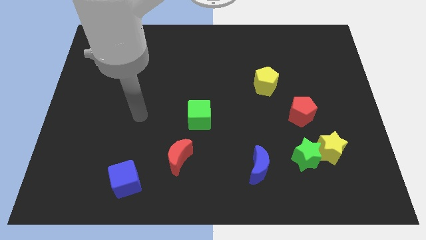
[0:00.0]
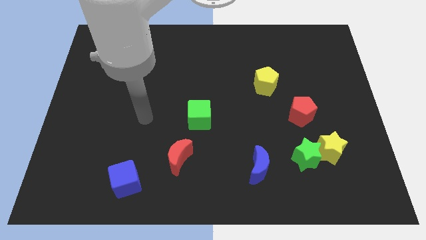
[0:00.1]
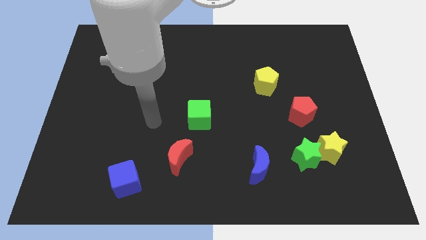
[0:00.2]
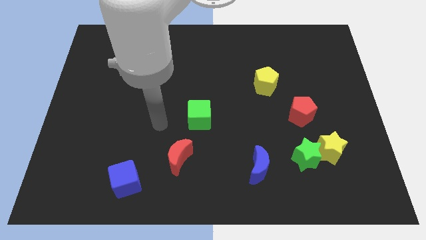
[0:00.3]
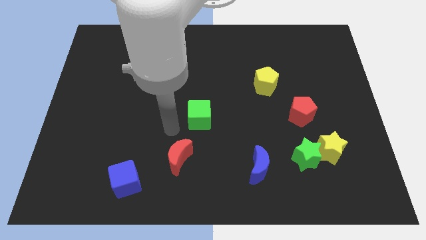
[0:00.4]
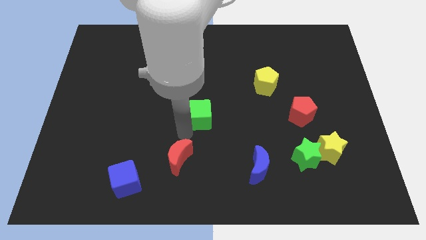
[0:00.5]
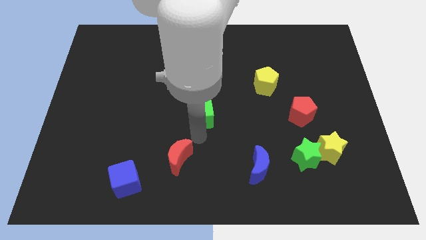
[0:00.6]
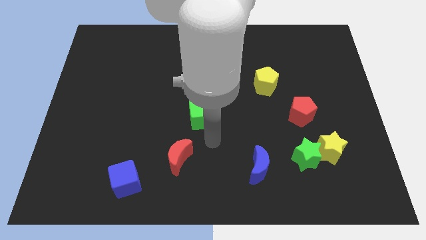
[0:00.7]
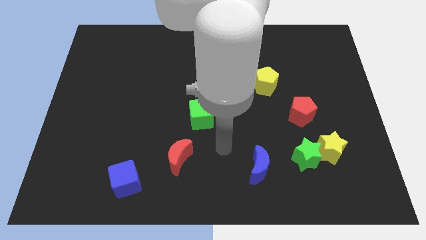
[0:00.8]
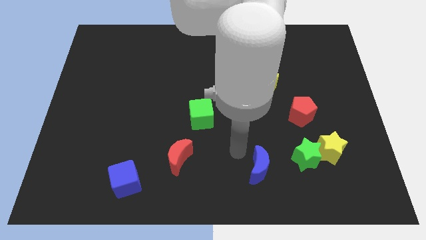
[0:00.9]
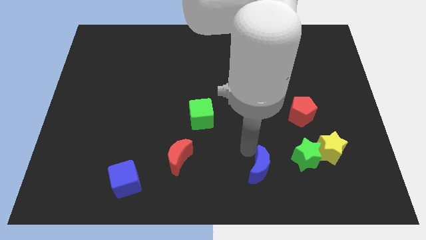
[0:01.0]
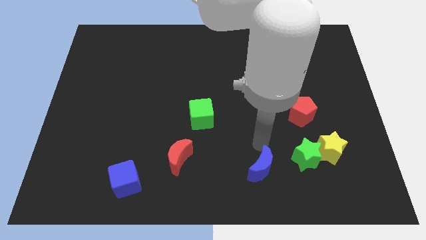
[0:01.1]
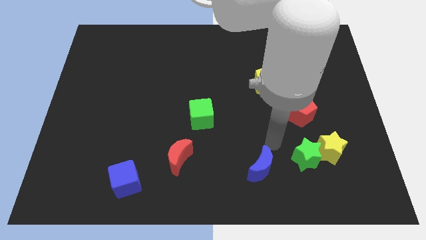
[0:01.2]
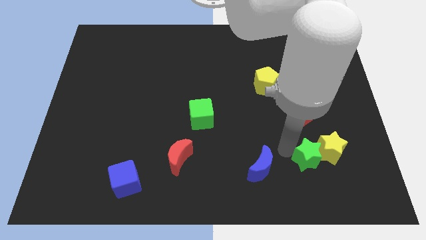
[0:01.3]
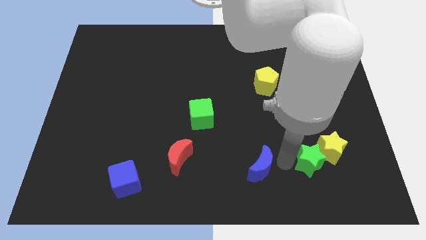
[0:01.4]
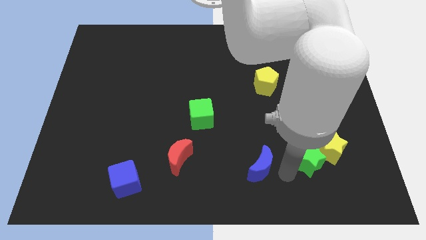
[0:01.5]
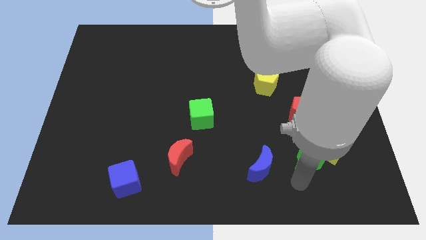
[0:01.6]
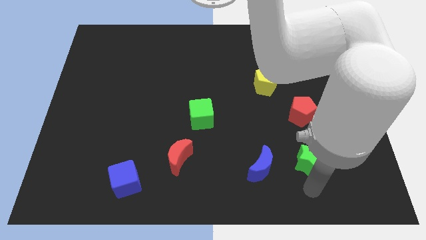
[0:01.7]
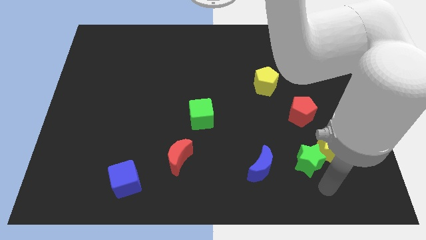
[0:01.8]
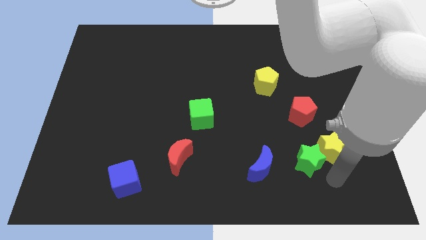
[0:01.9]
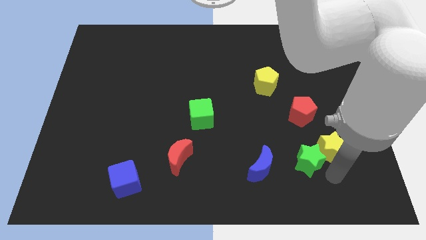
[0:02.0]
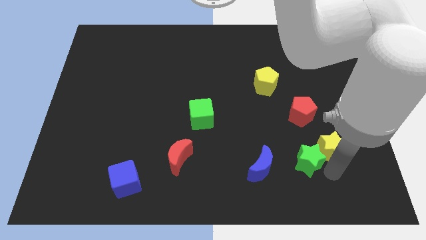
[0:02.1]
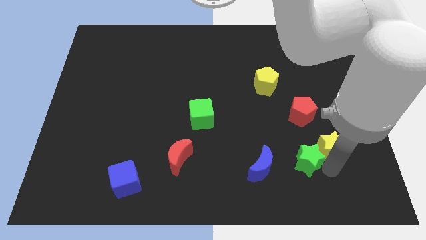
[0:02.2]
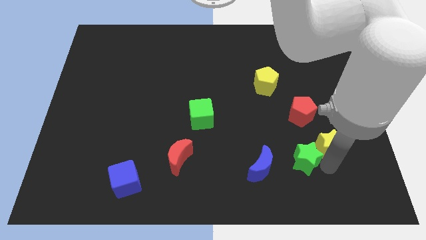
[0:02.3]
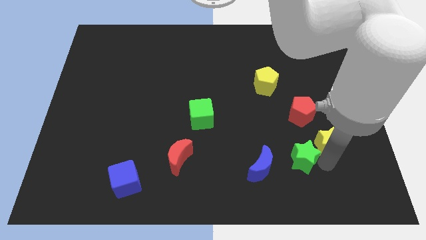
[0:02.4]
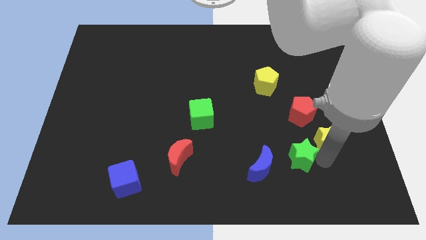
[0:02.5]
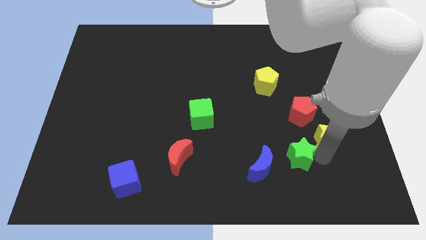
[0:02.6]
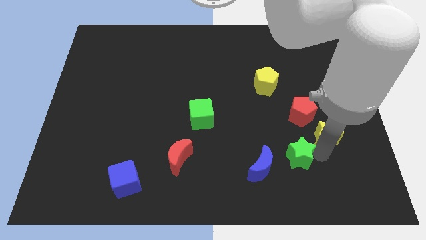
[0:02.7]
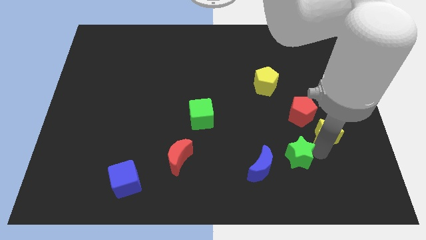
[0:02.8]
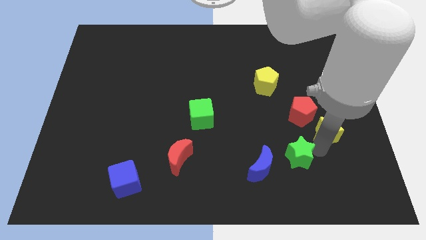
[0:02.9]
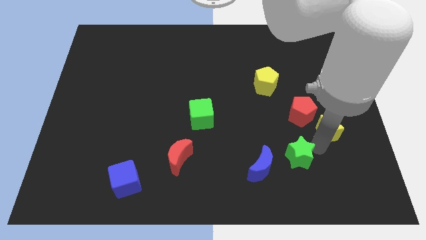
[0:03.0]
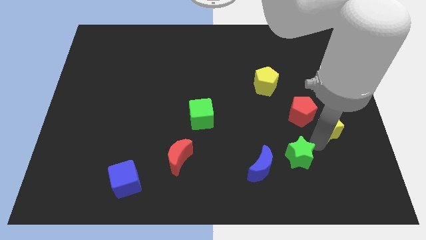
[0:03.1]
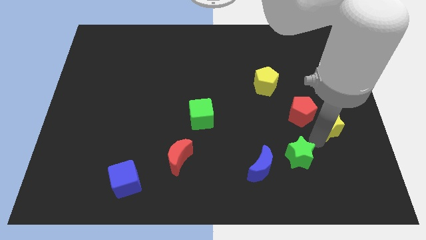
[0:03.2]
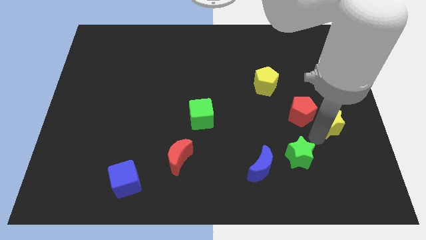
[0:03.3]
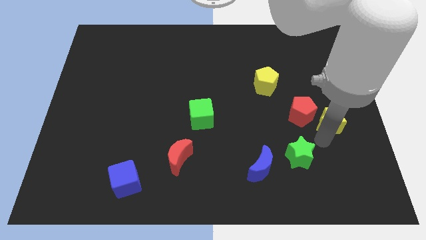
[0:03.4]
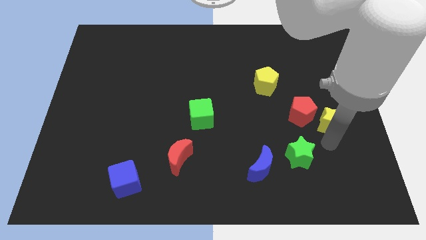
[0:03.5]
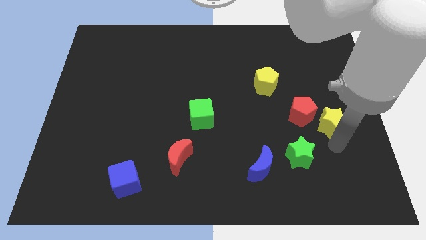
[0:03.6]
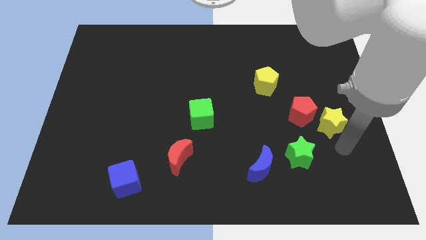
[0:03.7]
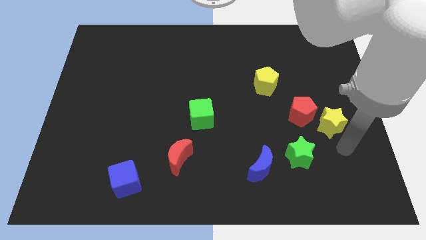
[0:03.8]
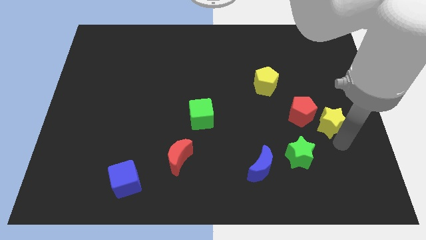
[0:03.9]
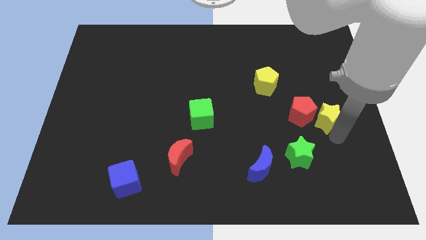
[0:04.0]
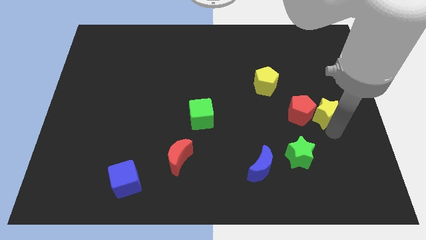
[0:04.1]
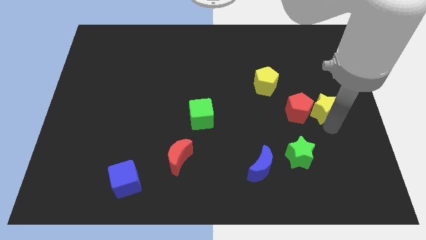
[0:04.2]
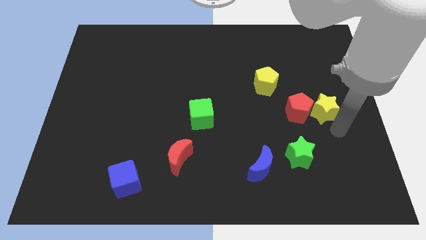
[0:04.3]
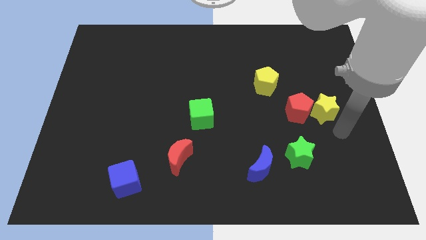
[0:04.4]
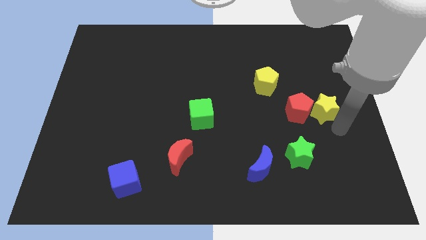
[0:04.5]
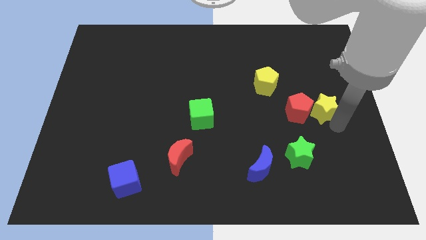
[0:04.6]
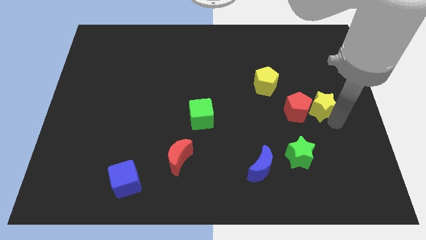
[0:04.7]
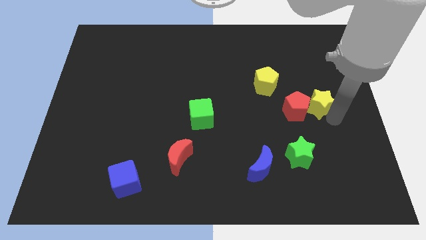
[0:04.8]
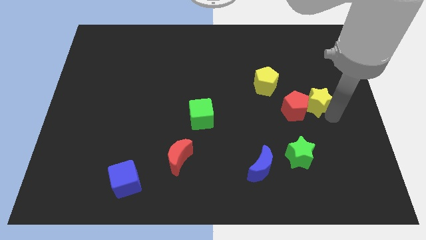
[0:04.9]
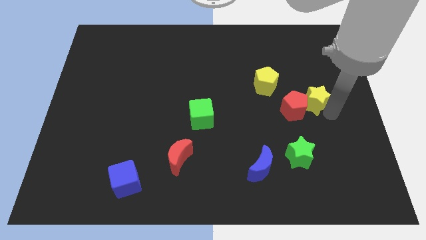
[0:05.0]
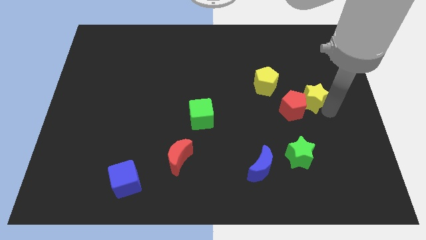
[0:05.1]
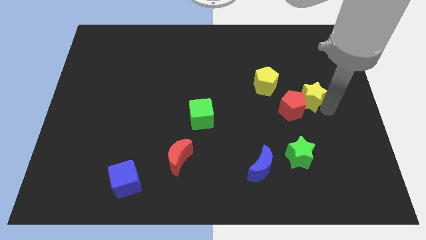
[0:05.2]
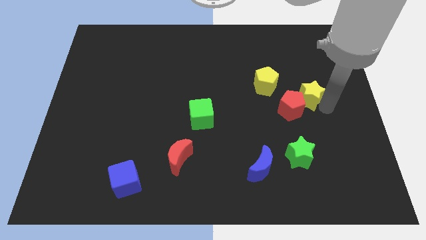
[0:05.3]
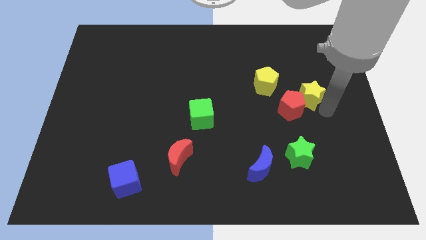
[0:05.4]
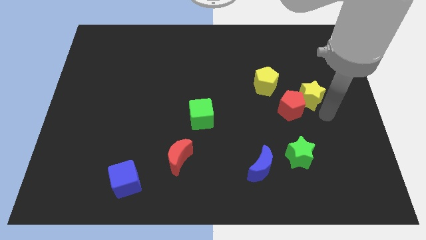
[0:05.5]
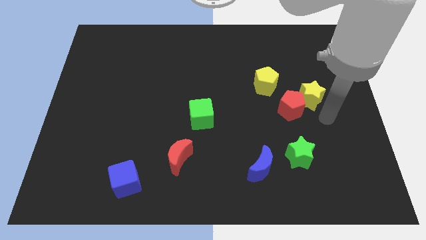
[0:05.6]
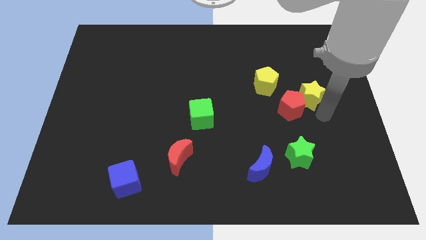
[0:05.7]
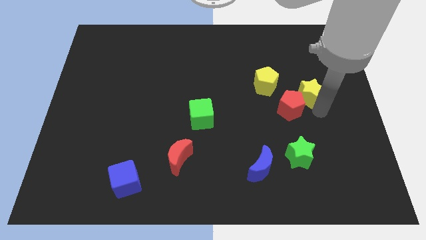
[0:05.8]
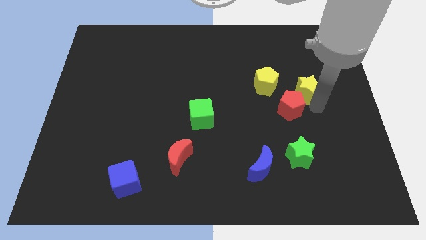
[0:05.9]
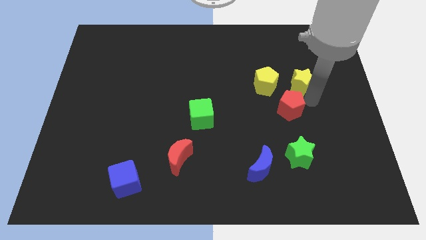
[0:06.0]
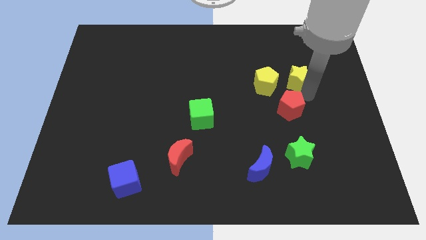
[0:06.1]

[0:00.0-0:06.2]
slide the yellow star diagonally up and to the right of the yellow pentagon

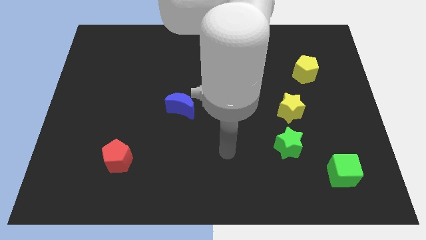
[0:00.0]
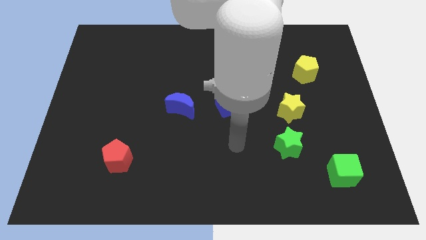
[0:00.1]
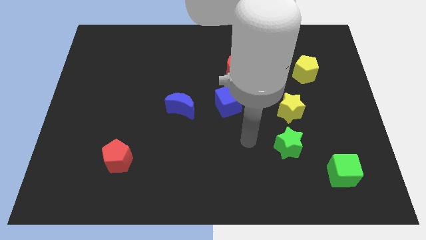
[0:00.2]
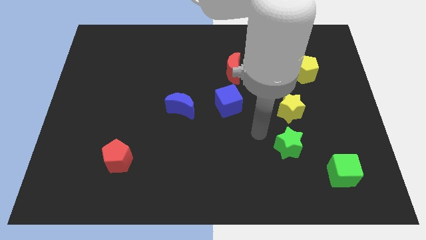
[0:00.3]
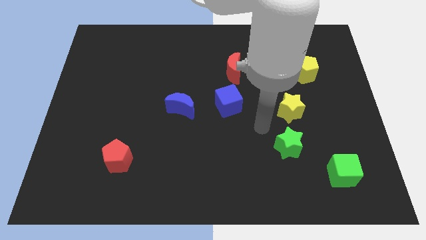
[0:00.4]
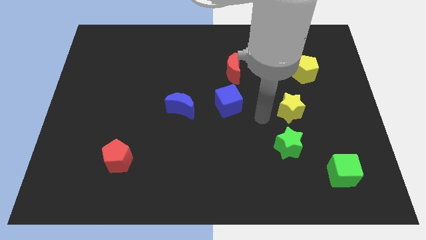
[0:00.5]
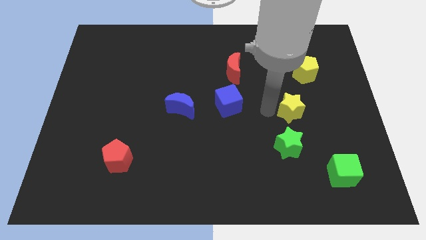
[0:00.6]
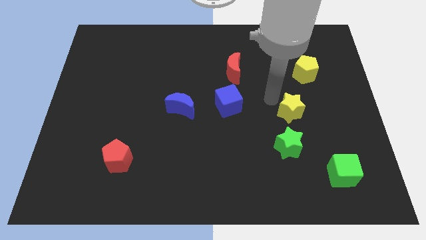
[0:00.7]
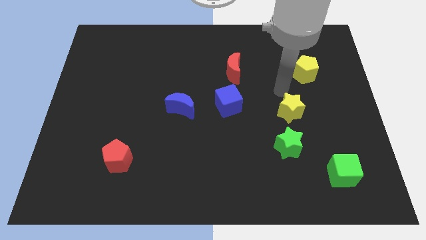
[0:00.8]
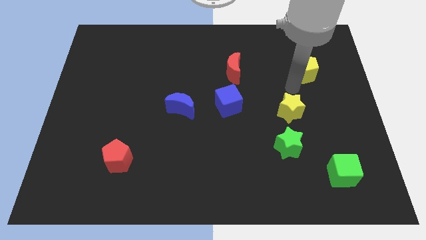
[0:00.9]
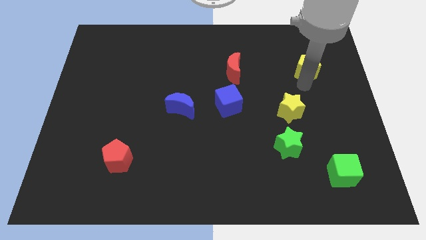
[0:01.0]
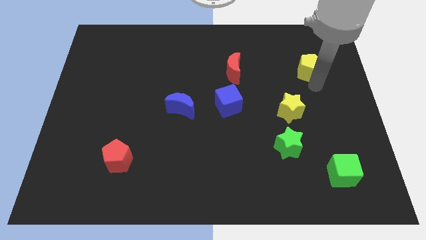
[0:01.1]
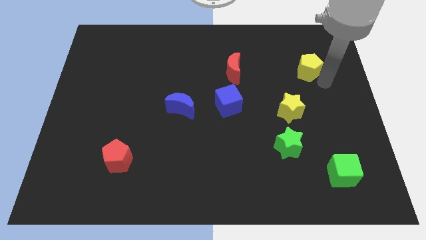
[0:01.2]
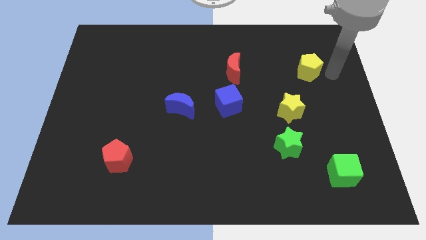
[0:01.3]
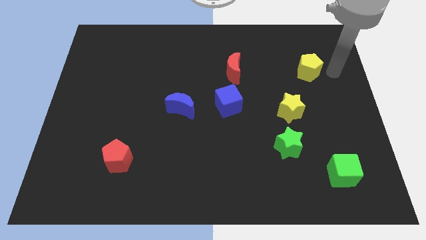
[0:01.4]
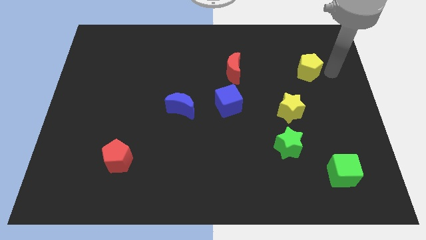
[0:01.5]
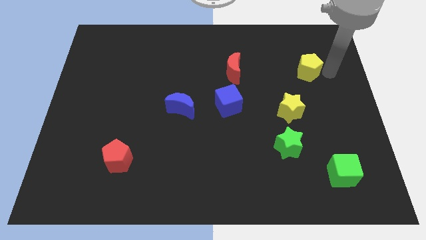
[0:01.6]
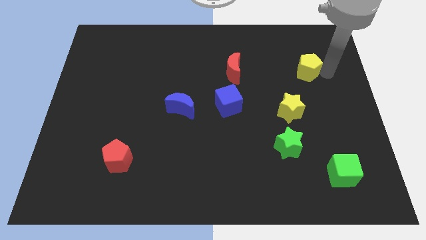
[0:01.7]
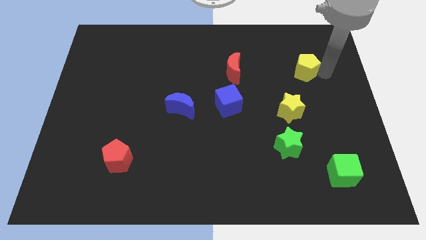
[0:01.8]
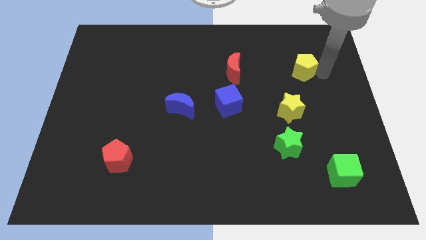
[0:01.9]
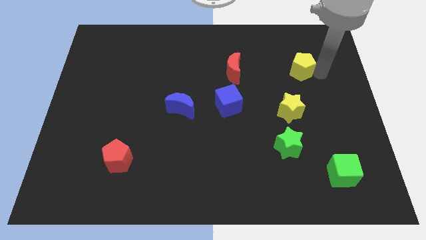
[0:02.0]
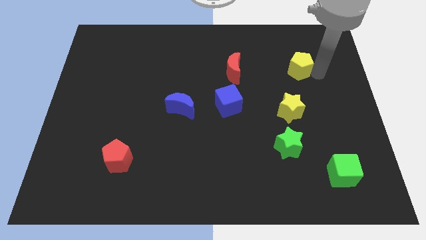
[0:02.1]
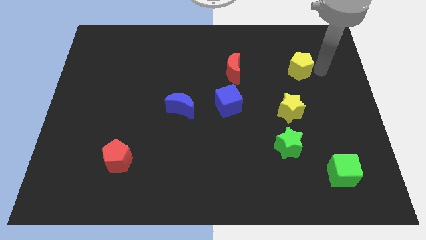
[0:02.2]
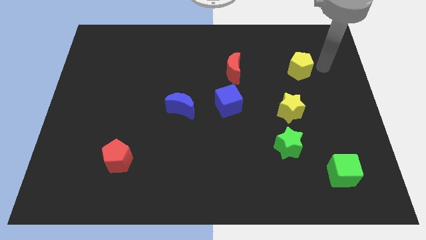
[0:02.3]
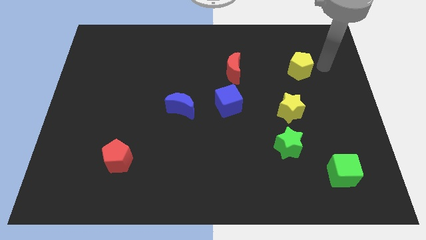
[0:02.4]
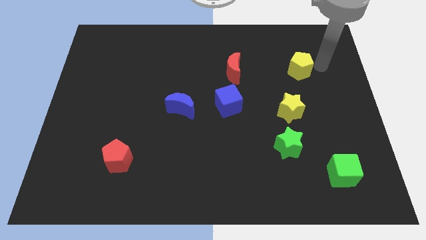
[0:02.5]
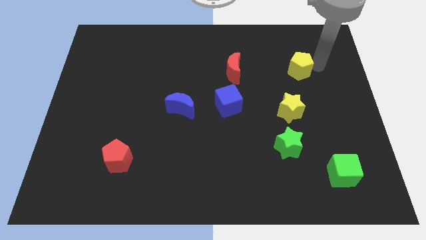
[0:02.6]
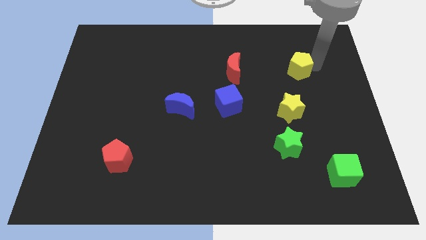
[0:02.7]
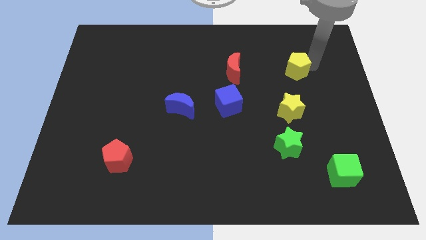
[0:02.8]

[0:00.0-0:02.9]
slide the yellow pentagon right of the red moon
